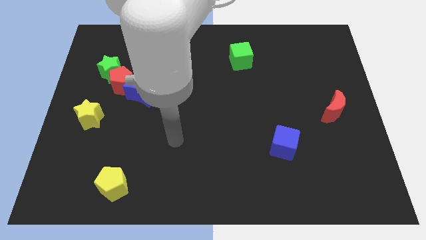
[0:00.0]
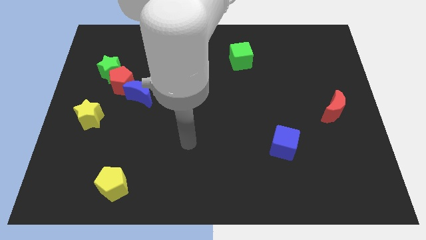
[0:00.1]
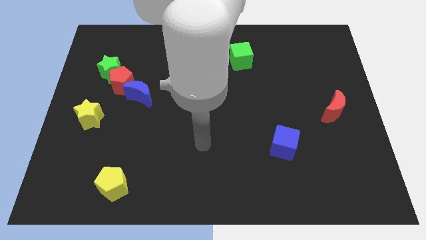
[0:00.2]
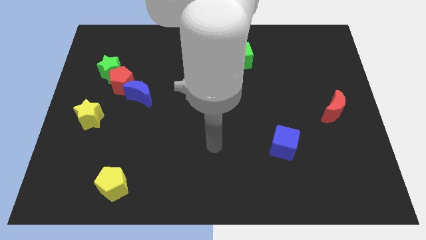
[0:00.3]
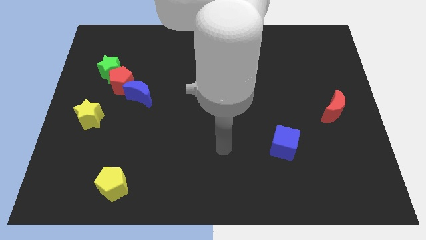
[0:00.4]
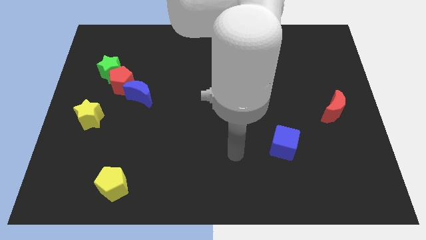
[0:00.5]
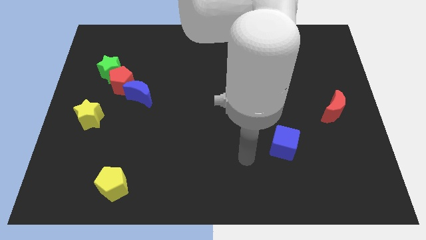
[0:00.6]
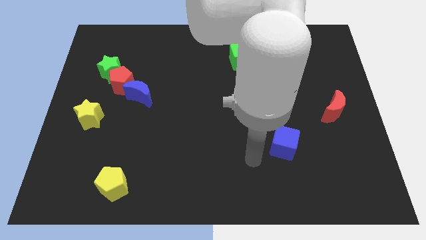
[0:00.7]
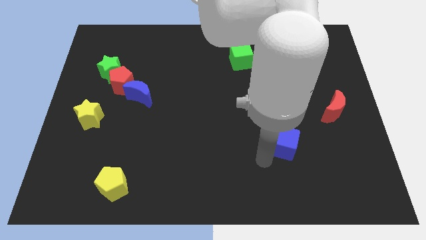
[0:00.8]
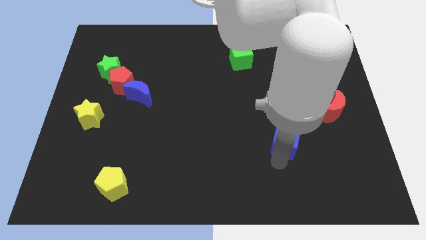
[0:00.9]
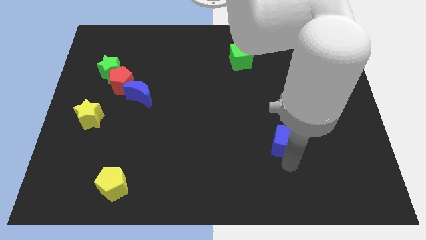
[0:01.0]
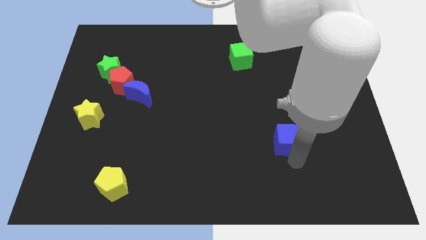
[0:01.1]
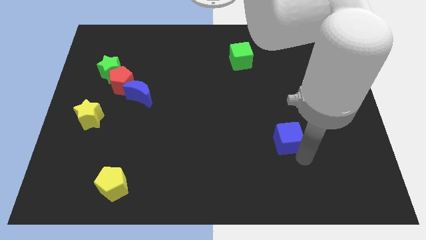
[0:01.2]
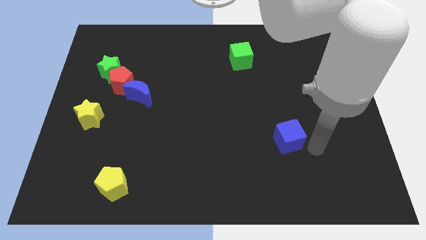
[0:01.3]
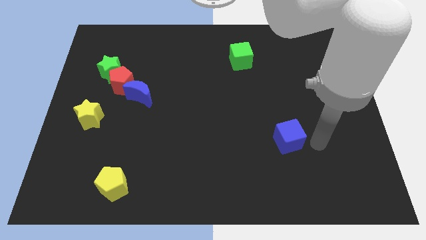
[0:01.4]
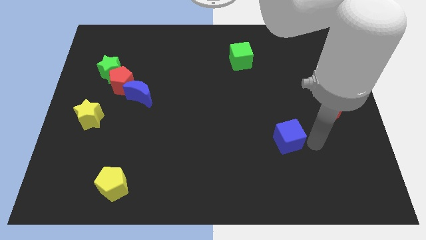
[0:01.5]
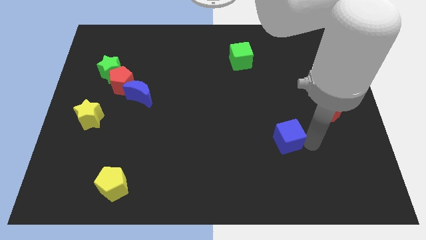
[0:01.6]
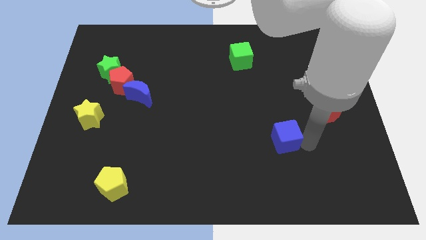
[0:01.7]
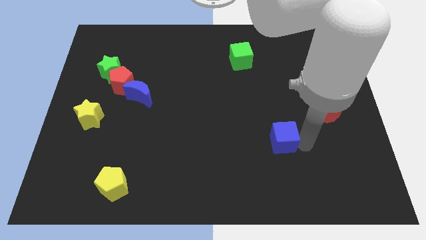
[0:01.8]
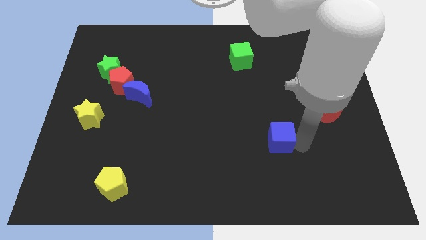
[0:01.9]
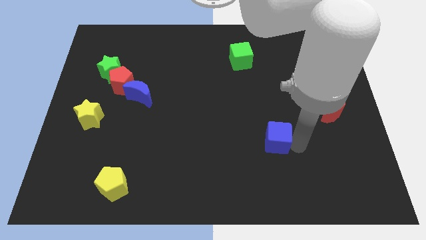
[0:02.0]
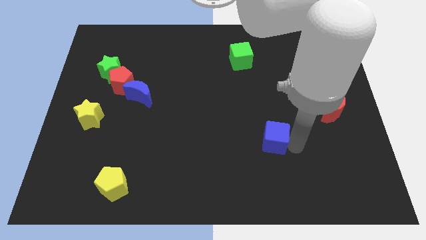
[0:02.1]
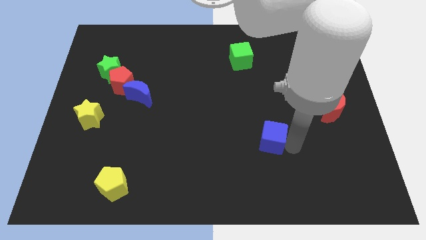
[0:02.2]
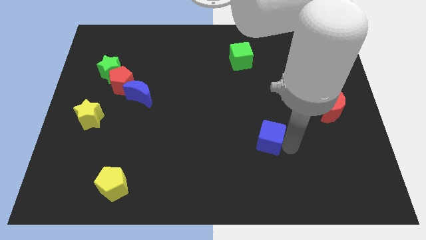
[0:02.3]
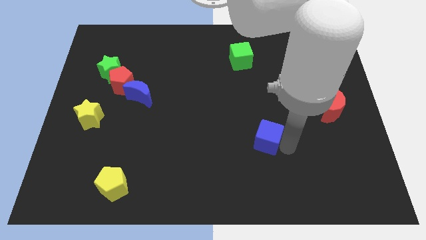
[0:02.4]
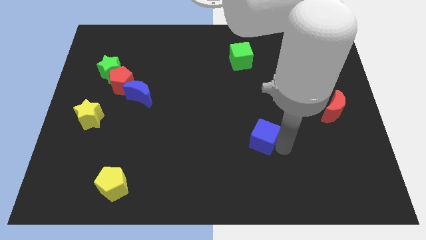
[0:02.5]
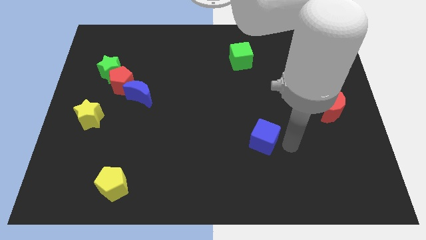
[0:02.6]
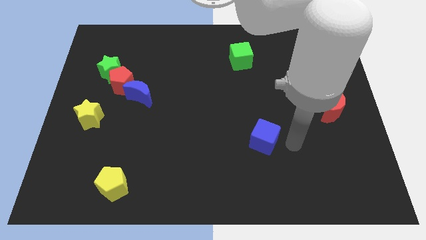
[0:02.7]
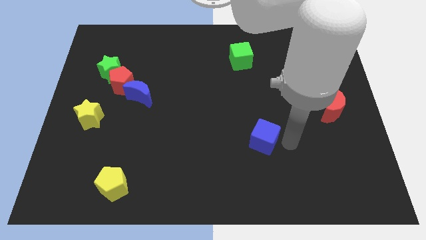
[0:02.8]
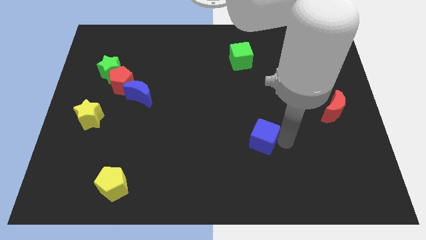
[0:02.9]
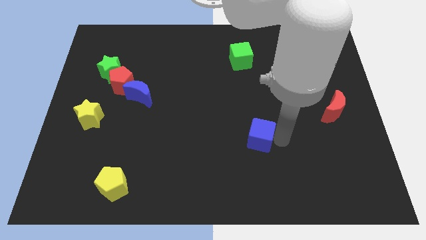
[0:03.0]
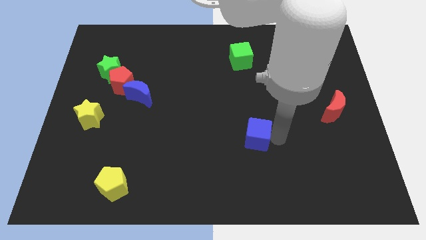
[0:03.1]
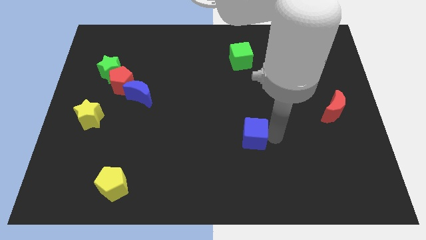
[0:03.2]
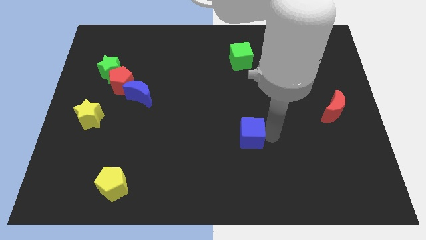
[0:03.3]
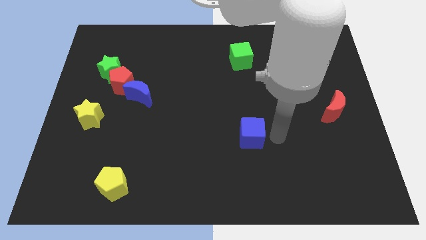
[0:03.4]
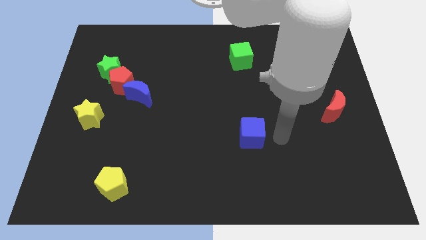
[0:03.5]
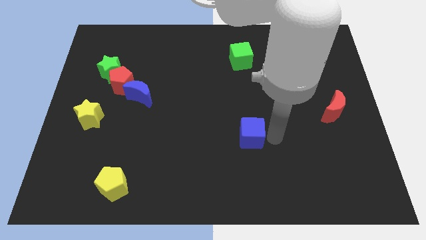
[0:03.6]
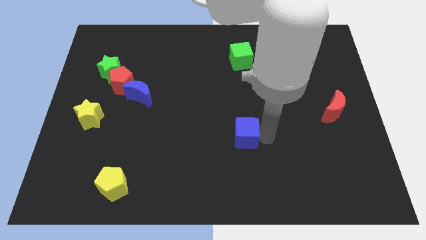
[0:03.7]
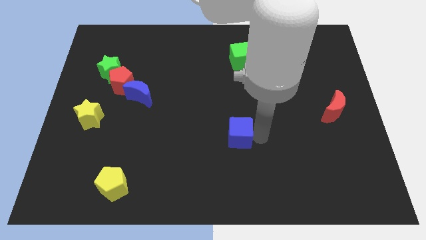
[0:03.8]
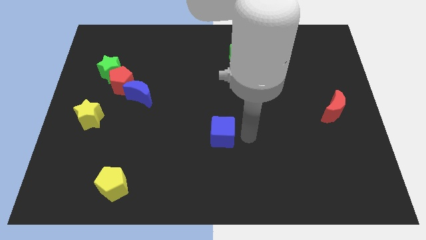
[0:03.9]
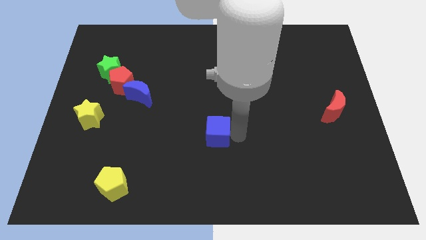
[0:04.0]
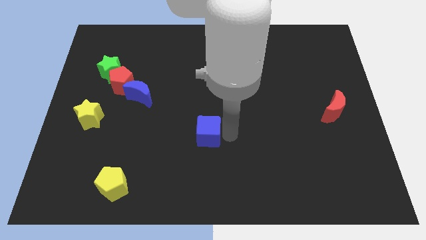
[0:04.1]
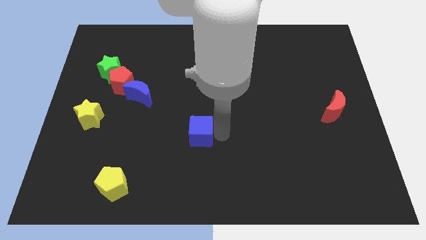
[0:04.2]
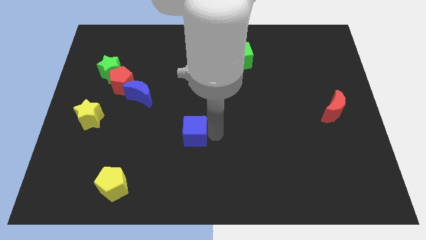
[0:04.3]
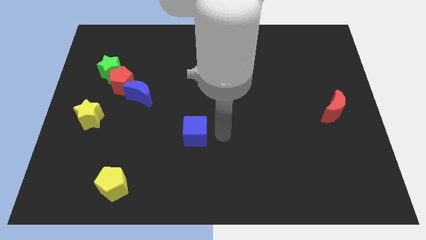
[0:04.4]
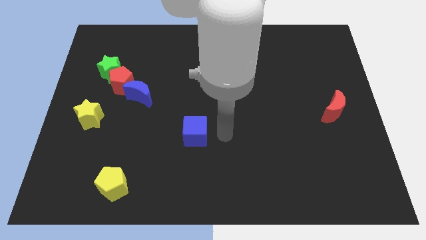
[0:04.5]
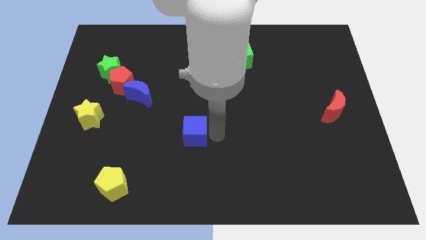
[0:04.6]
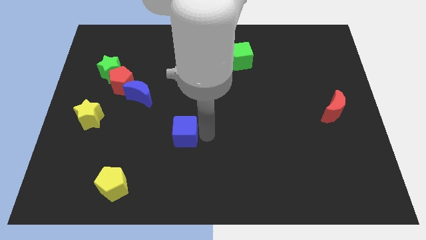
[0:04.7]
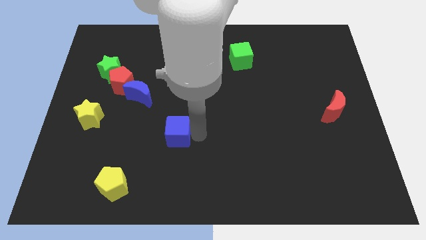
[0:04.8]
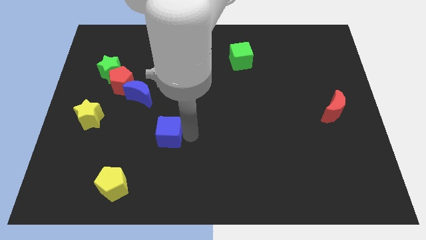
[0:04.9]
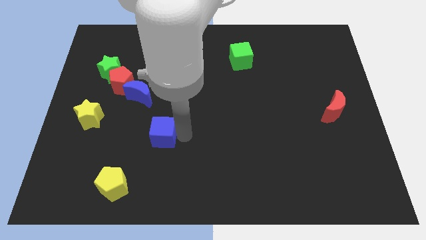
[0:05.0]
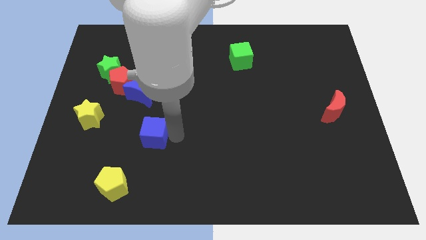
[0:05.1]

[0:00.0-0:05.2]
push the blue cube to the bottom of the blue moon

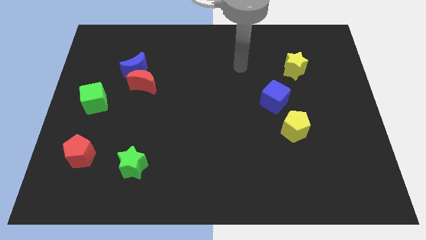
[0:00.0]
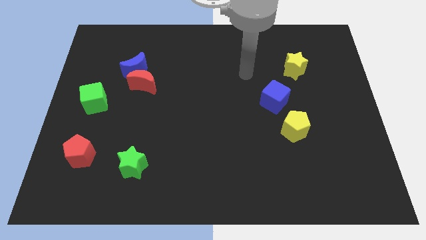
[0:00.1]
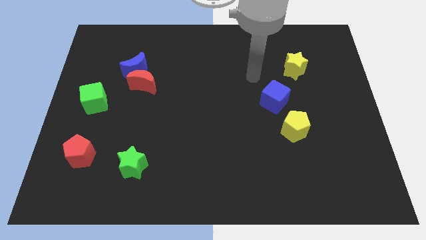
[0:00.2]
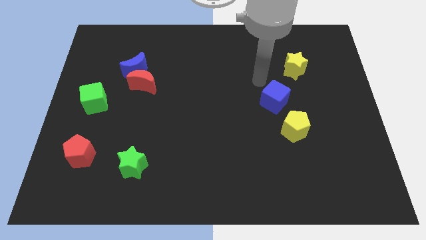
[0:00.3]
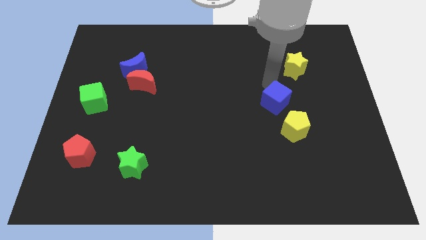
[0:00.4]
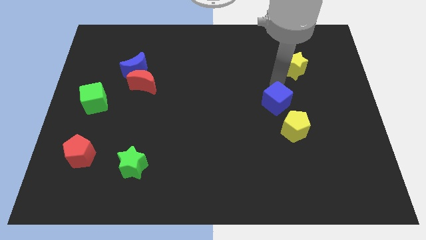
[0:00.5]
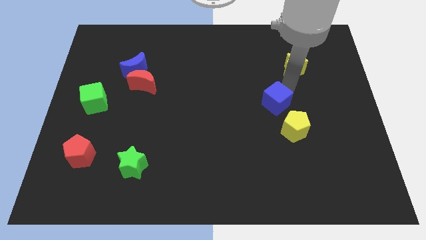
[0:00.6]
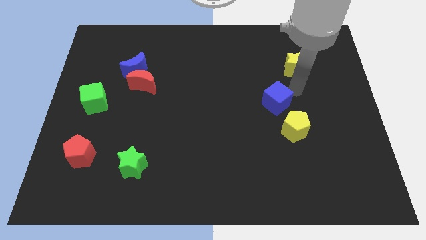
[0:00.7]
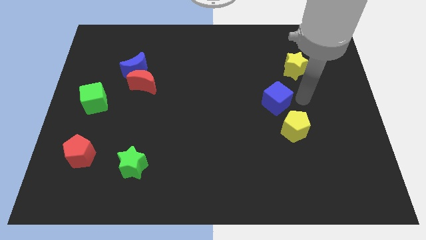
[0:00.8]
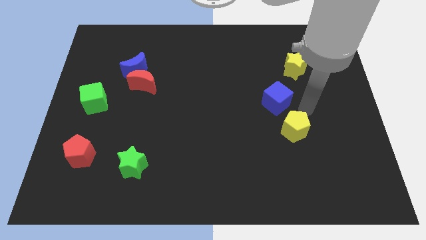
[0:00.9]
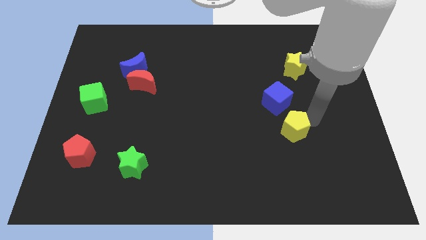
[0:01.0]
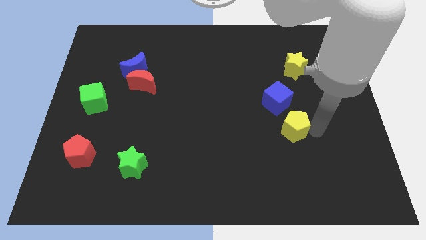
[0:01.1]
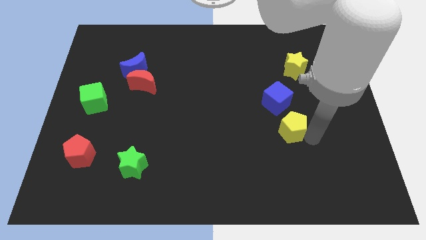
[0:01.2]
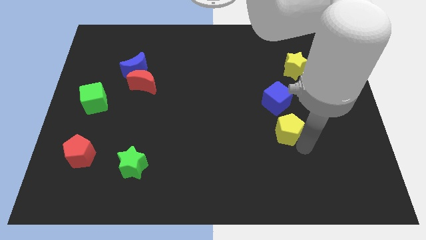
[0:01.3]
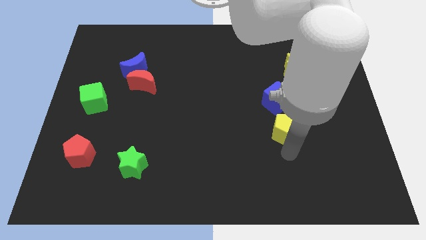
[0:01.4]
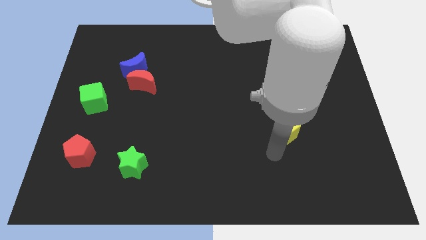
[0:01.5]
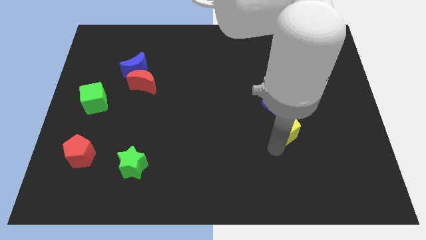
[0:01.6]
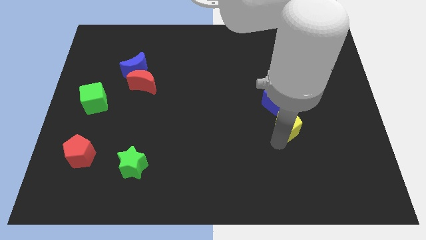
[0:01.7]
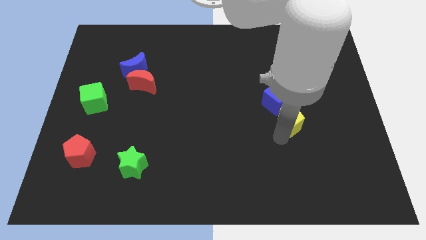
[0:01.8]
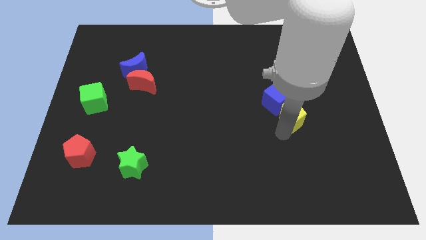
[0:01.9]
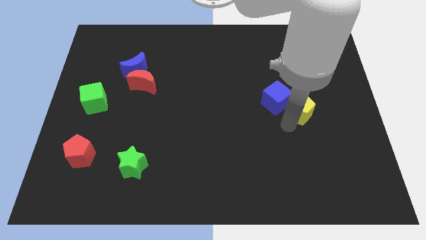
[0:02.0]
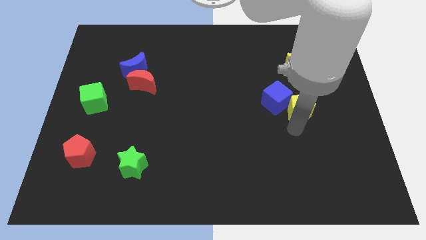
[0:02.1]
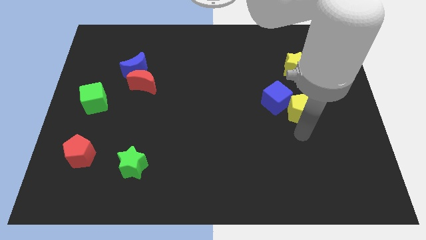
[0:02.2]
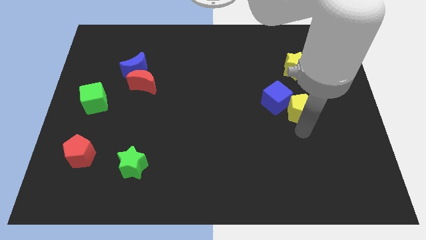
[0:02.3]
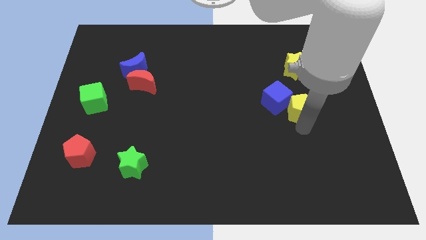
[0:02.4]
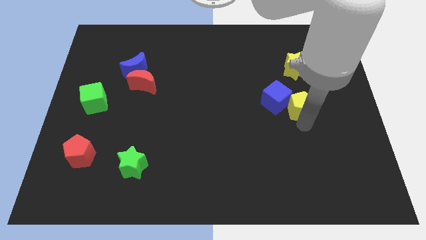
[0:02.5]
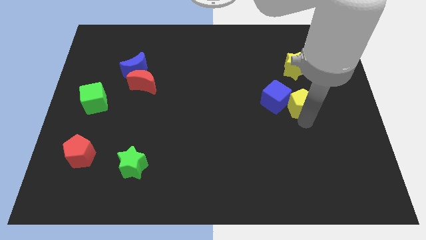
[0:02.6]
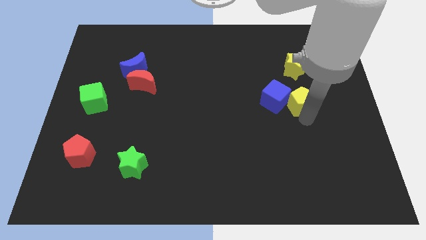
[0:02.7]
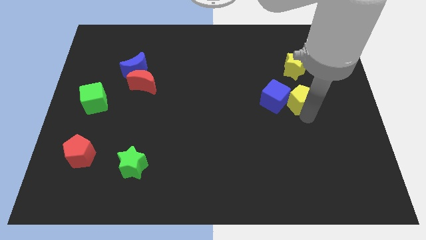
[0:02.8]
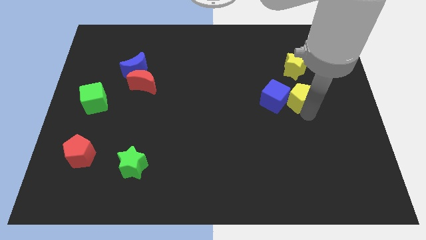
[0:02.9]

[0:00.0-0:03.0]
slide the yellow pentagon diagonally up and to the right of the blue cube

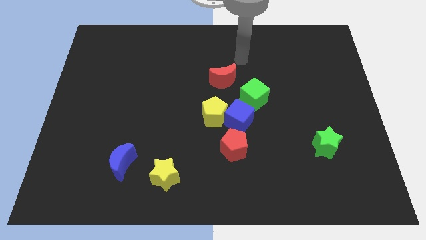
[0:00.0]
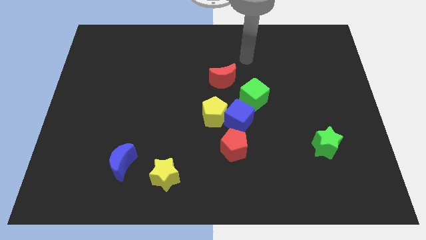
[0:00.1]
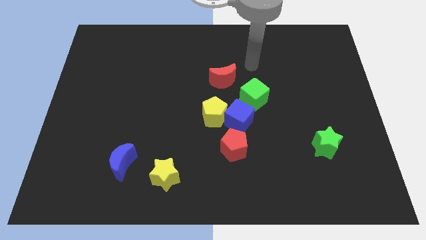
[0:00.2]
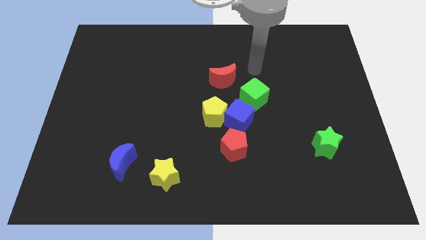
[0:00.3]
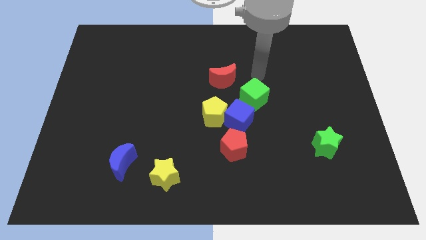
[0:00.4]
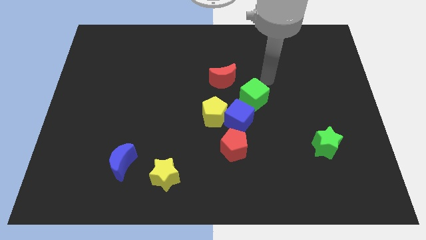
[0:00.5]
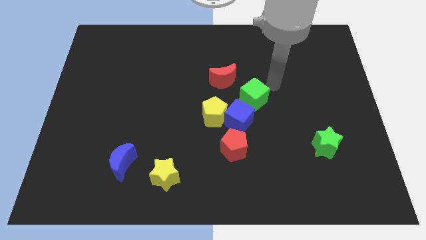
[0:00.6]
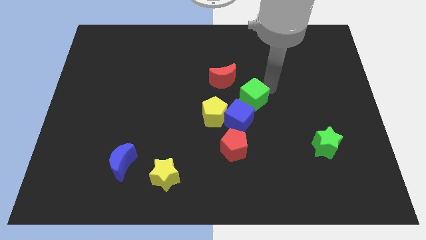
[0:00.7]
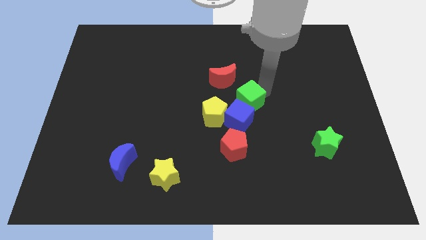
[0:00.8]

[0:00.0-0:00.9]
push the green cube to the top side of the red pentagon
